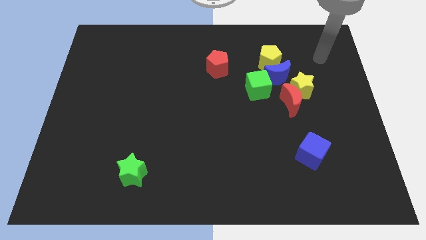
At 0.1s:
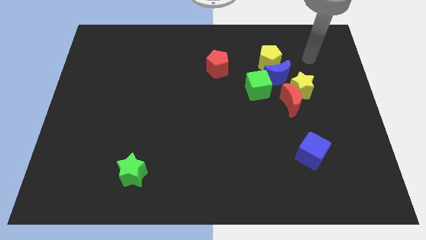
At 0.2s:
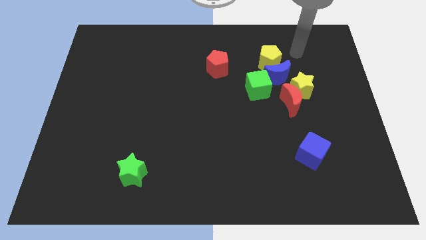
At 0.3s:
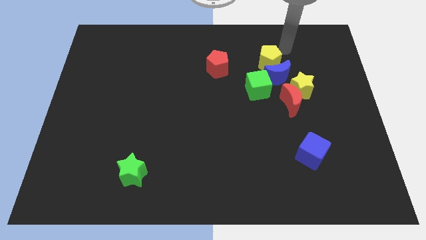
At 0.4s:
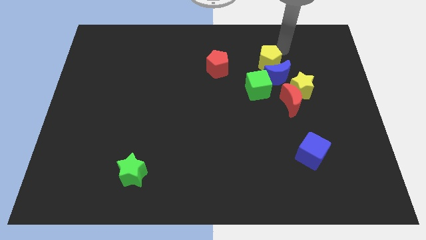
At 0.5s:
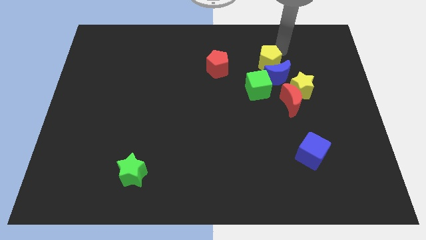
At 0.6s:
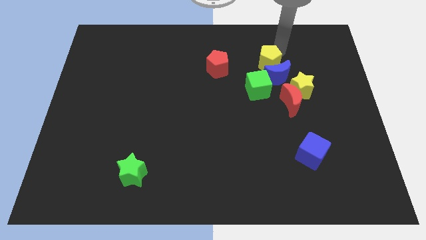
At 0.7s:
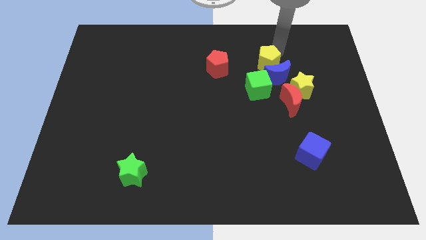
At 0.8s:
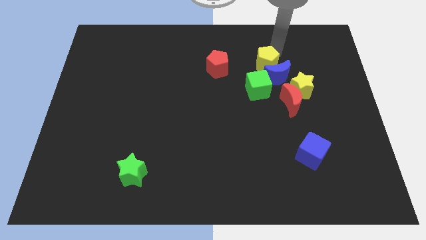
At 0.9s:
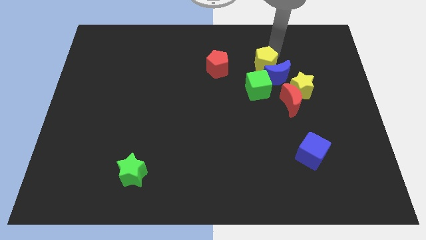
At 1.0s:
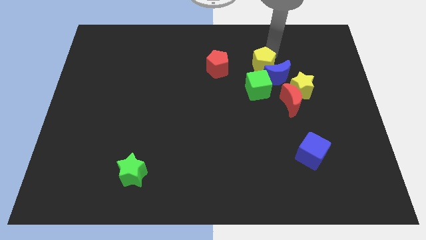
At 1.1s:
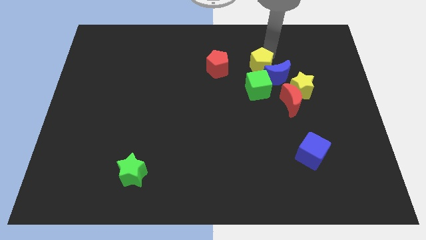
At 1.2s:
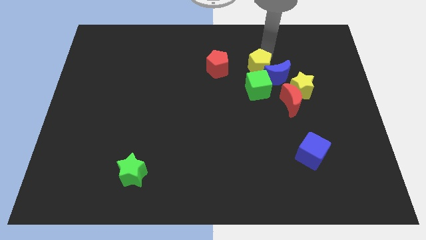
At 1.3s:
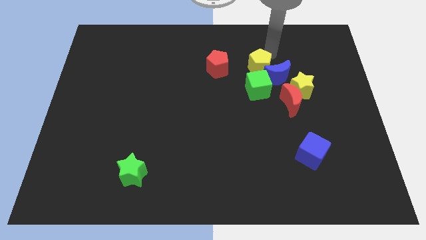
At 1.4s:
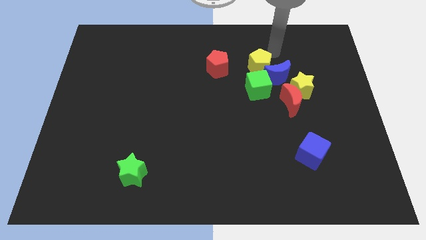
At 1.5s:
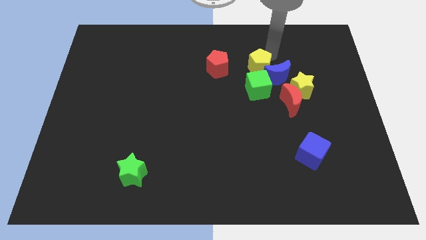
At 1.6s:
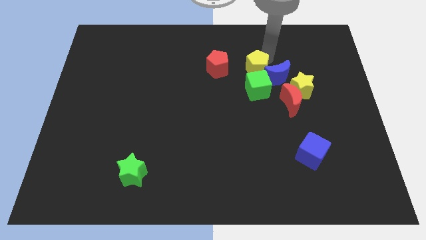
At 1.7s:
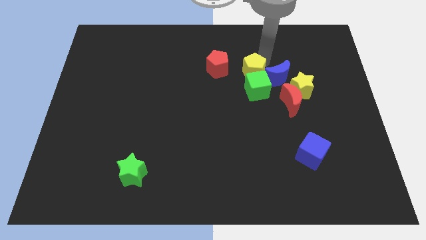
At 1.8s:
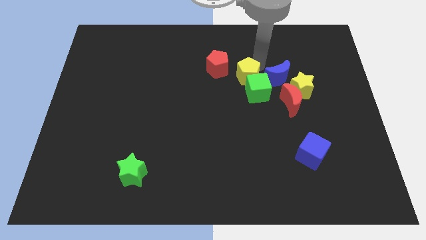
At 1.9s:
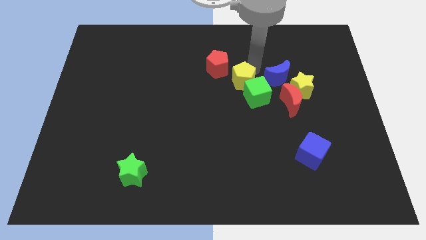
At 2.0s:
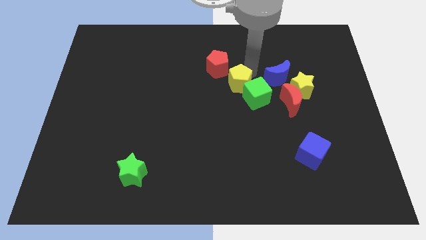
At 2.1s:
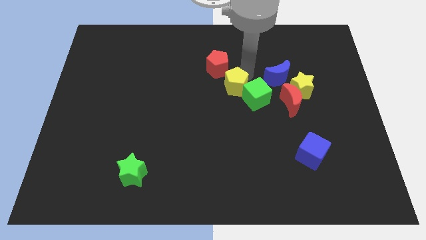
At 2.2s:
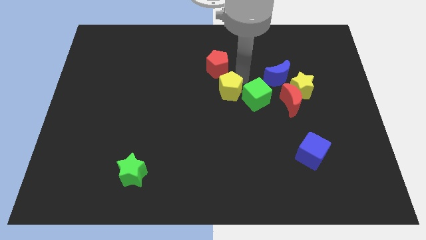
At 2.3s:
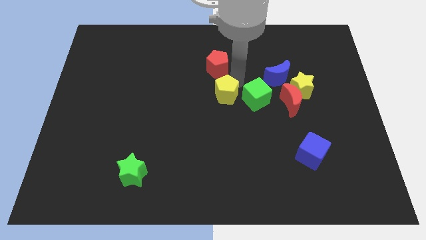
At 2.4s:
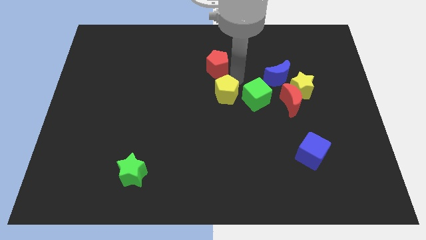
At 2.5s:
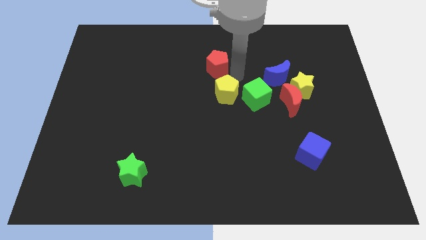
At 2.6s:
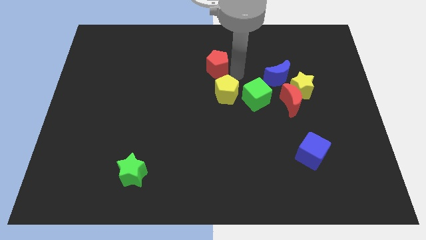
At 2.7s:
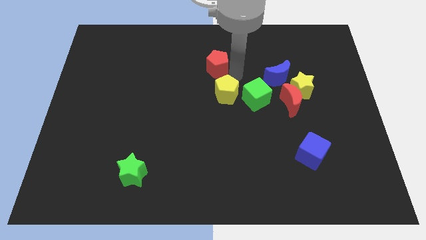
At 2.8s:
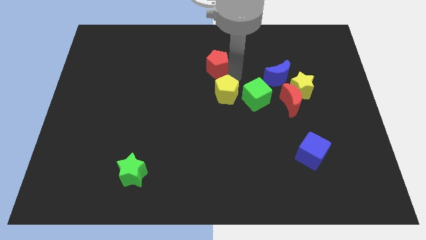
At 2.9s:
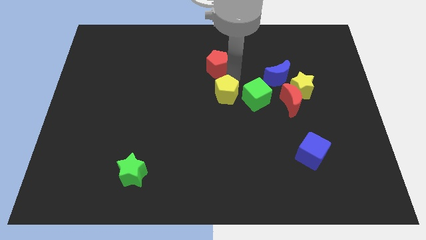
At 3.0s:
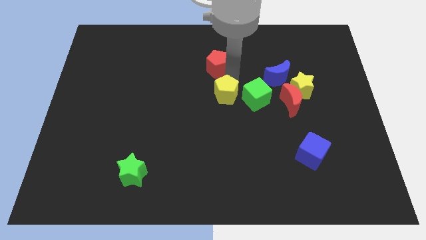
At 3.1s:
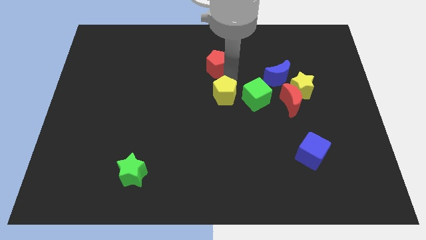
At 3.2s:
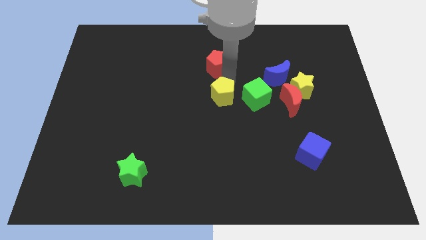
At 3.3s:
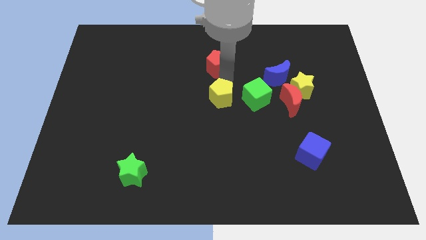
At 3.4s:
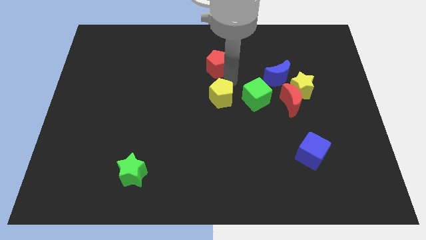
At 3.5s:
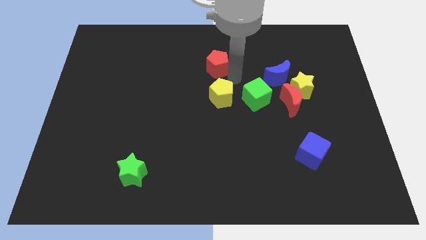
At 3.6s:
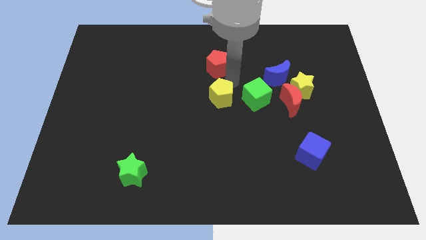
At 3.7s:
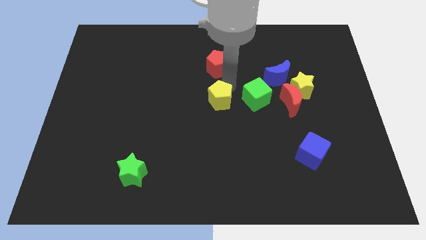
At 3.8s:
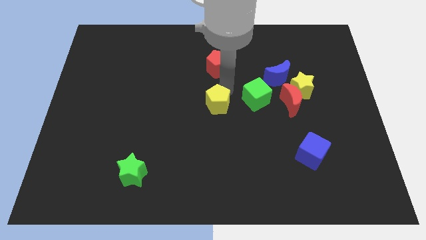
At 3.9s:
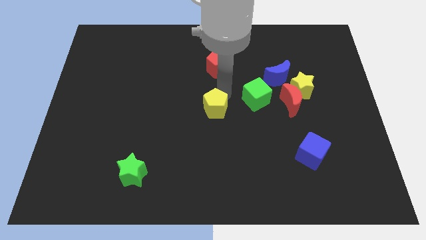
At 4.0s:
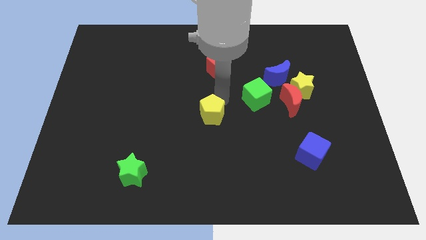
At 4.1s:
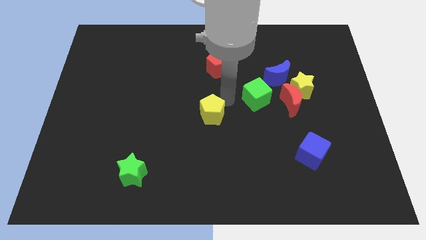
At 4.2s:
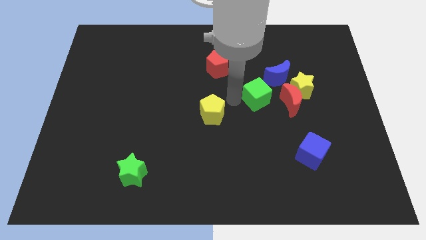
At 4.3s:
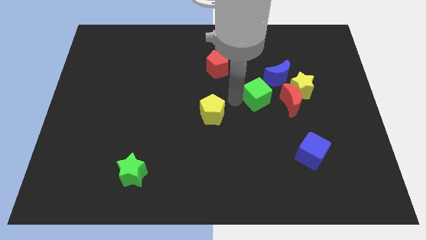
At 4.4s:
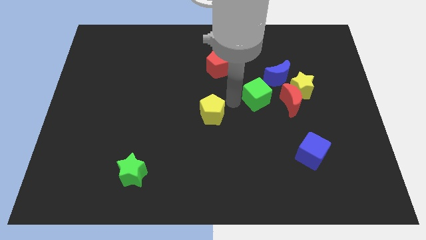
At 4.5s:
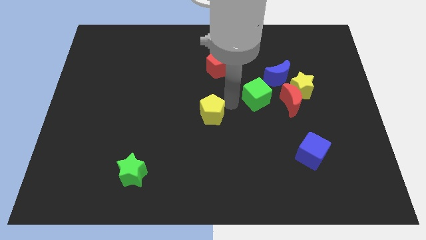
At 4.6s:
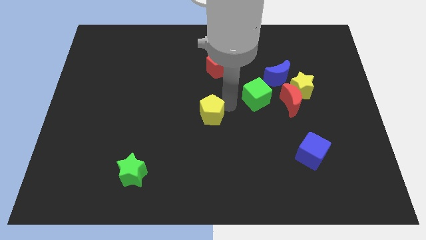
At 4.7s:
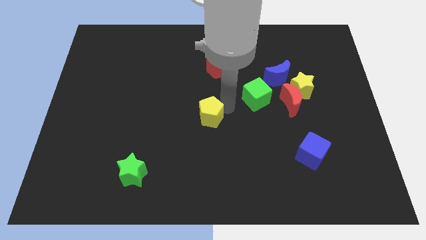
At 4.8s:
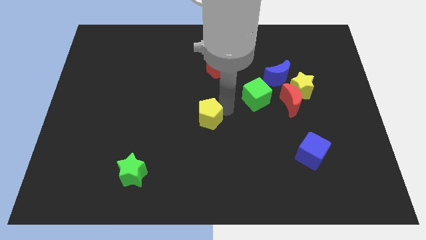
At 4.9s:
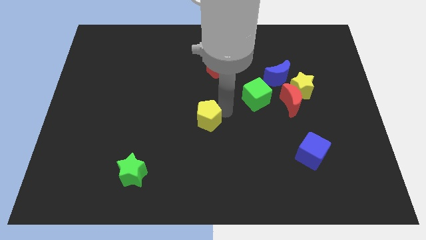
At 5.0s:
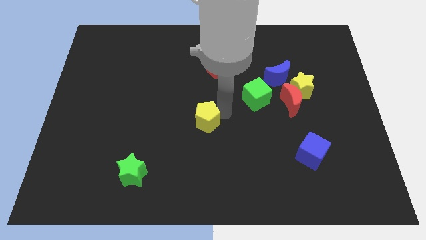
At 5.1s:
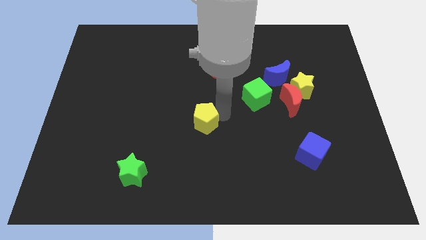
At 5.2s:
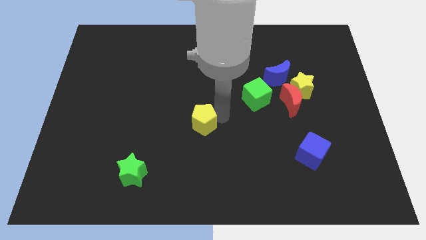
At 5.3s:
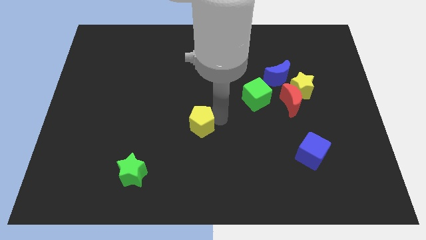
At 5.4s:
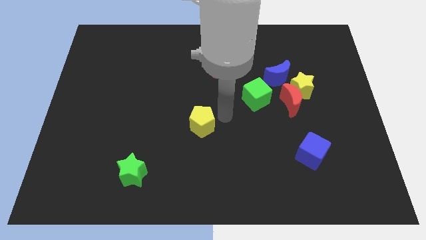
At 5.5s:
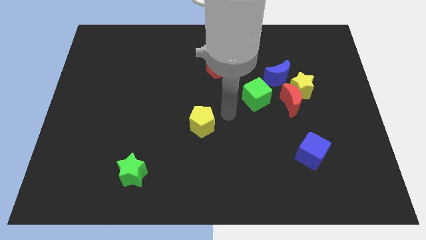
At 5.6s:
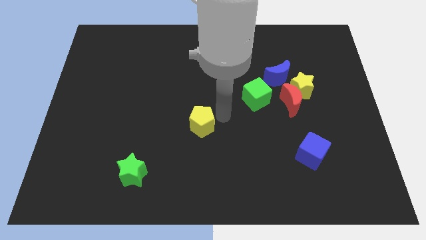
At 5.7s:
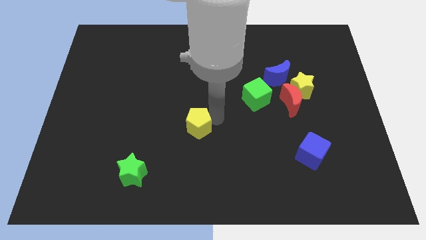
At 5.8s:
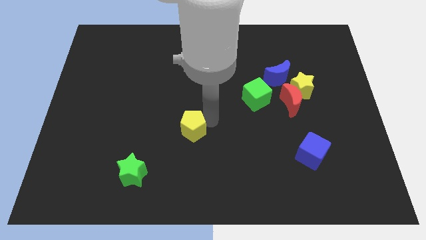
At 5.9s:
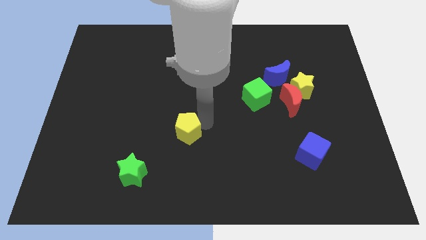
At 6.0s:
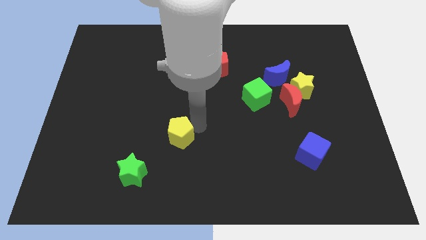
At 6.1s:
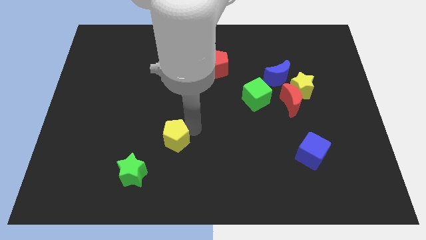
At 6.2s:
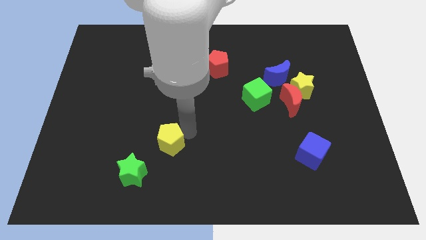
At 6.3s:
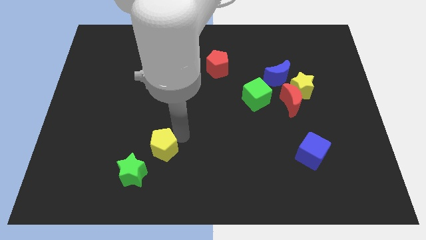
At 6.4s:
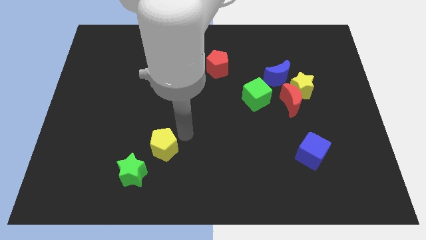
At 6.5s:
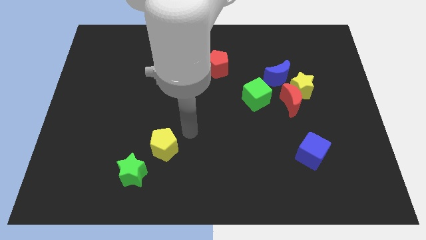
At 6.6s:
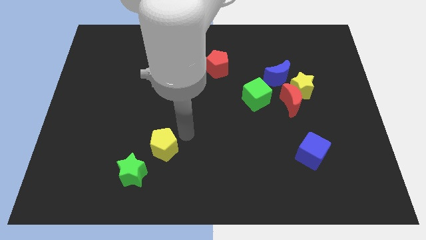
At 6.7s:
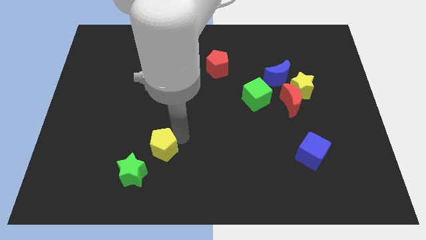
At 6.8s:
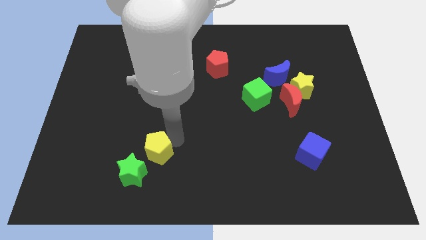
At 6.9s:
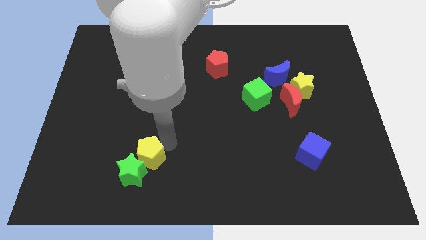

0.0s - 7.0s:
slide the yellow pentagon towards the green star

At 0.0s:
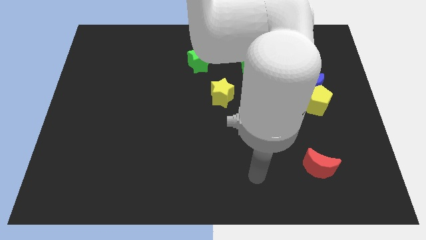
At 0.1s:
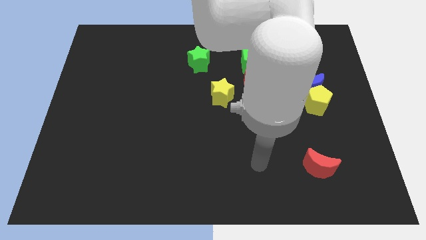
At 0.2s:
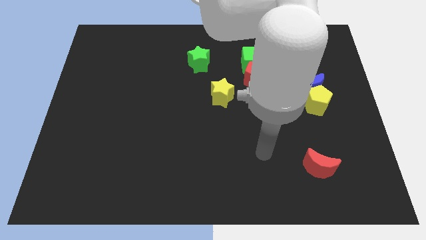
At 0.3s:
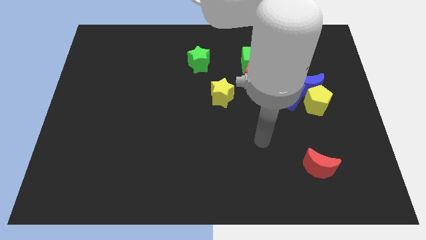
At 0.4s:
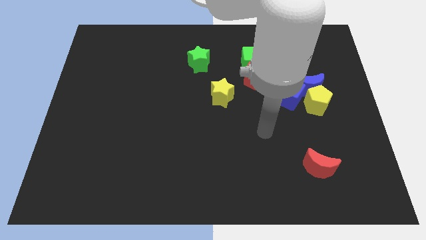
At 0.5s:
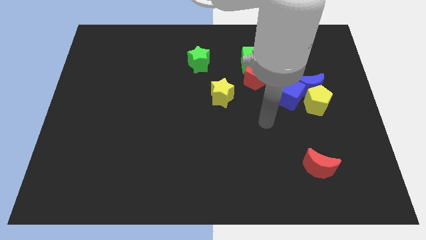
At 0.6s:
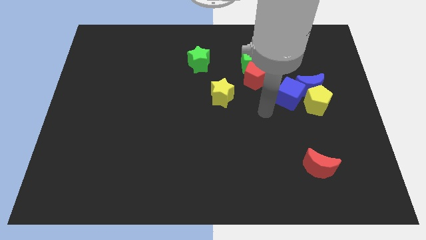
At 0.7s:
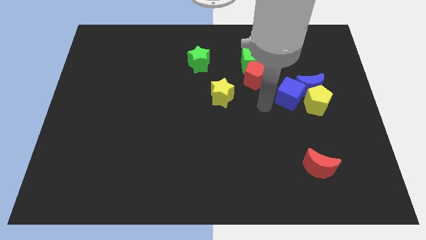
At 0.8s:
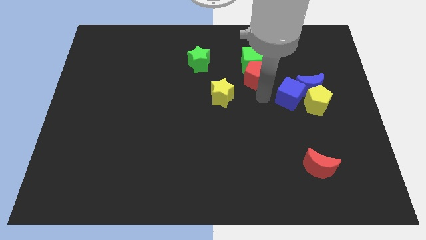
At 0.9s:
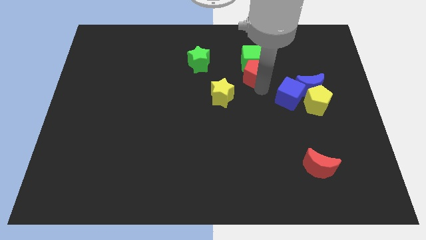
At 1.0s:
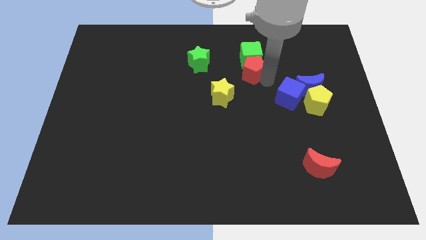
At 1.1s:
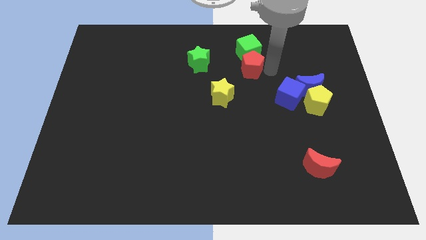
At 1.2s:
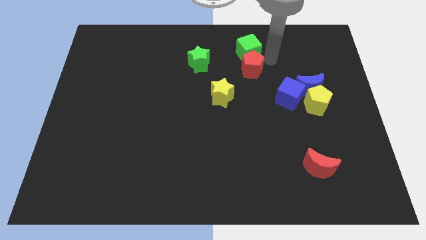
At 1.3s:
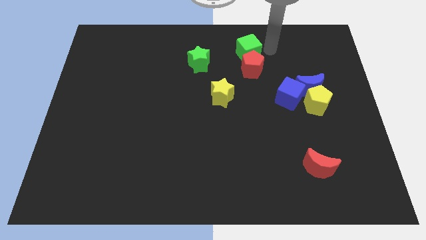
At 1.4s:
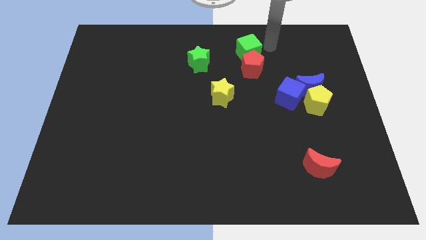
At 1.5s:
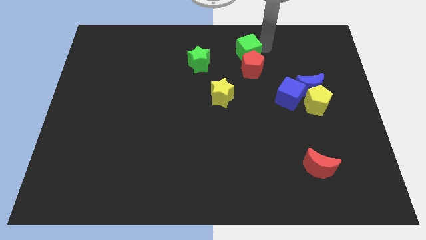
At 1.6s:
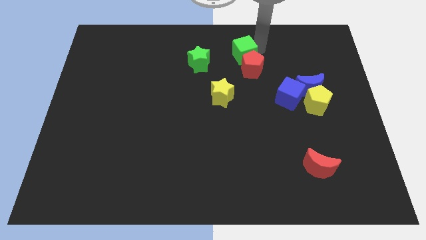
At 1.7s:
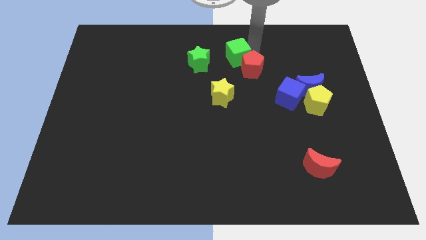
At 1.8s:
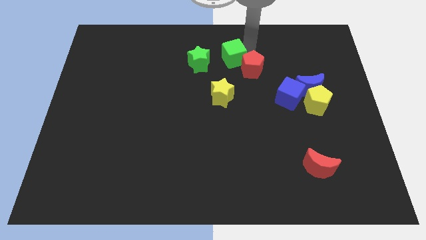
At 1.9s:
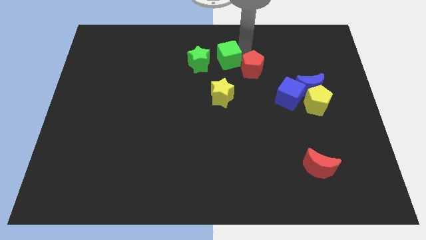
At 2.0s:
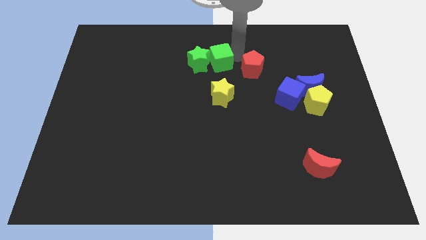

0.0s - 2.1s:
slide the green cube to the green star
